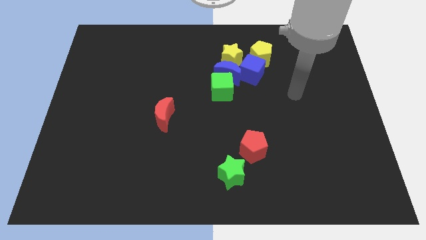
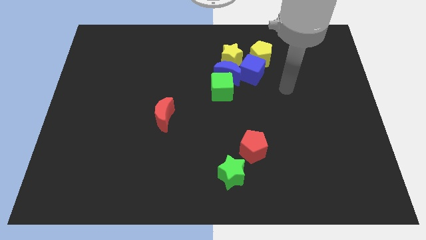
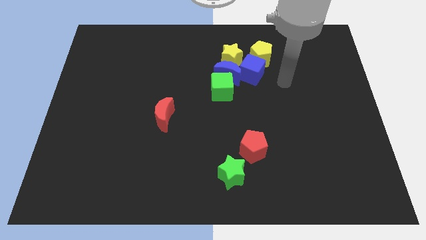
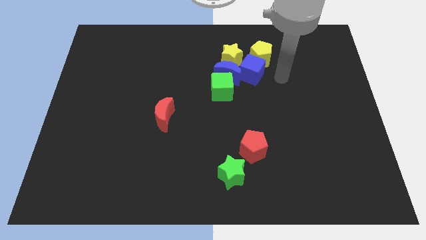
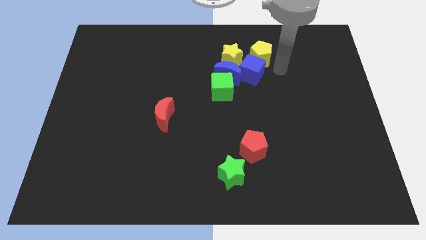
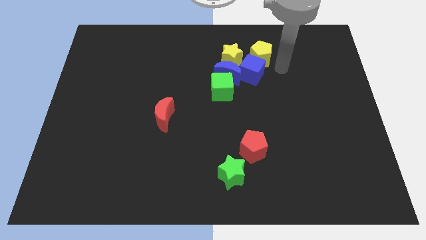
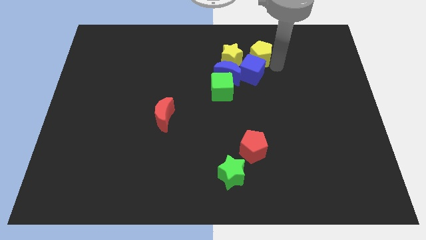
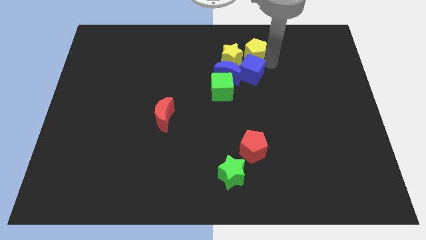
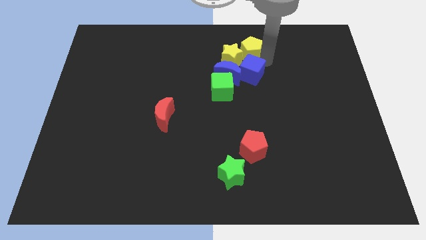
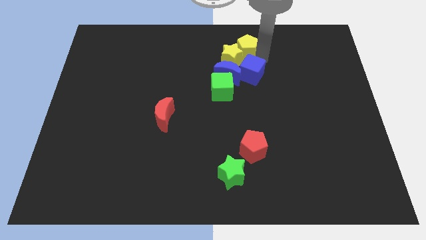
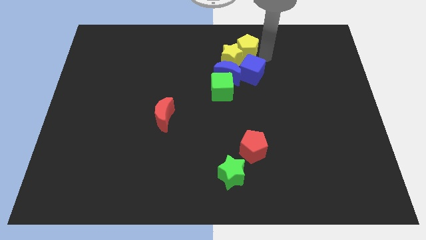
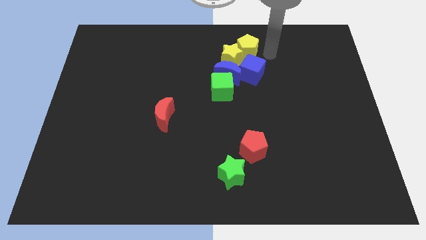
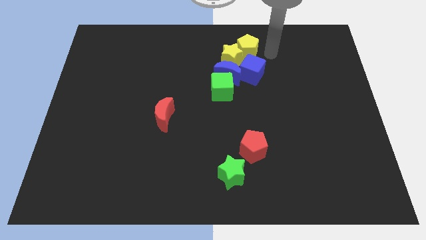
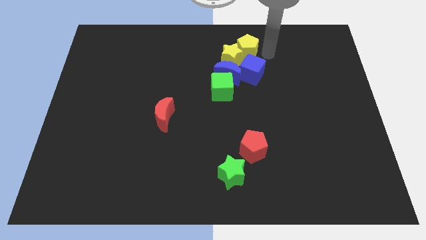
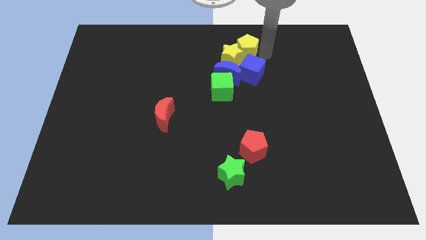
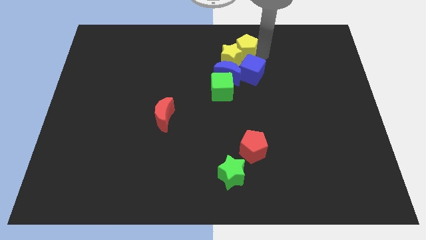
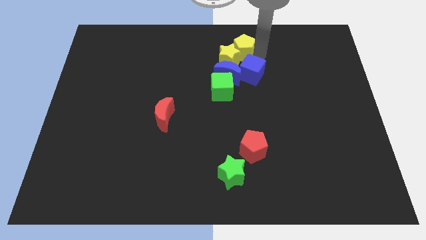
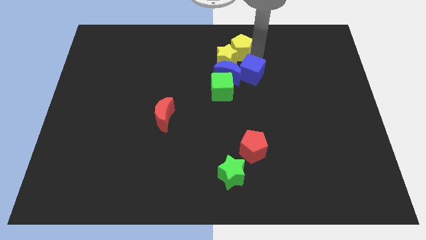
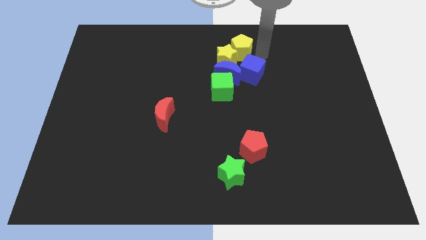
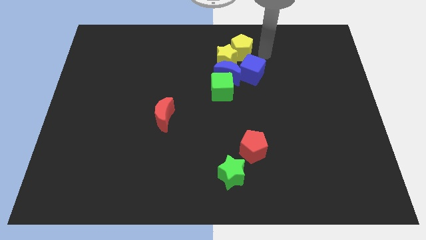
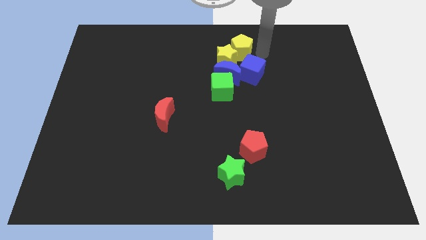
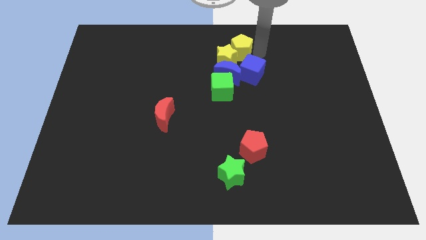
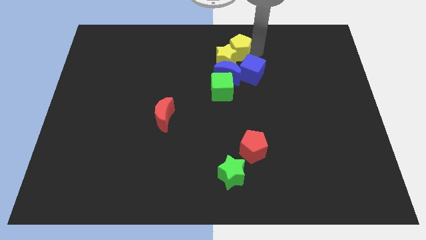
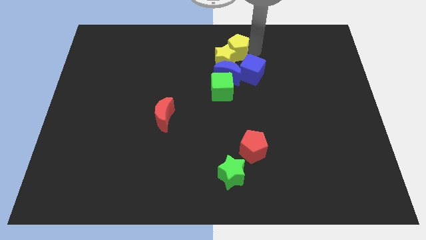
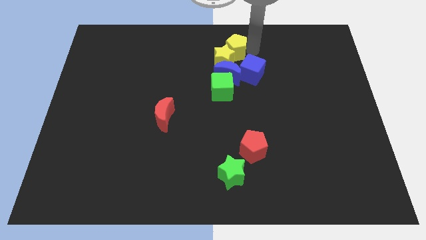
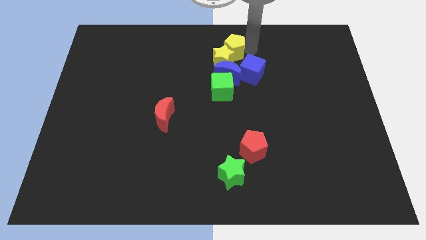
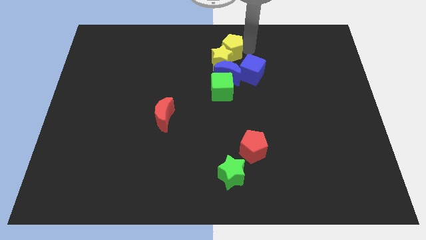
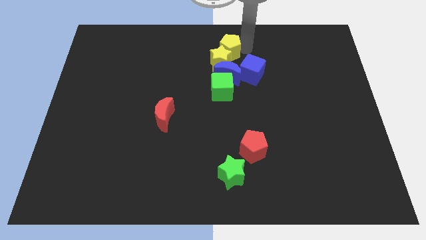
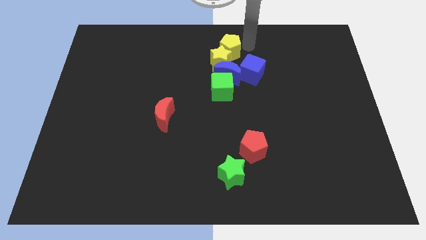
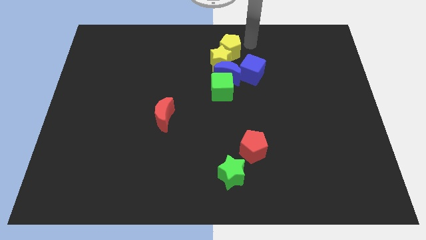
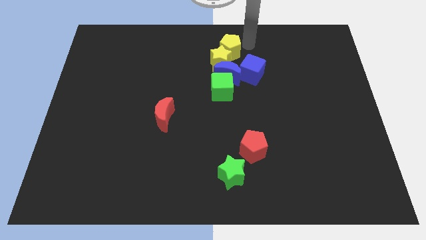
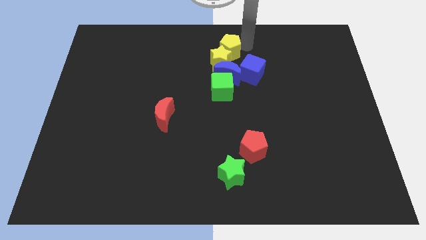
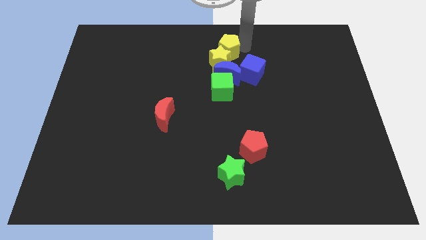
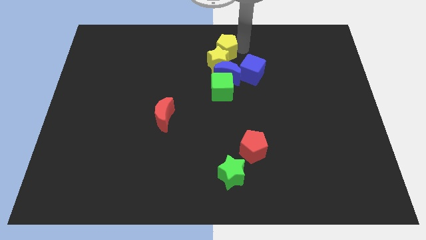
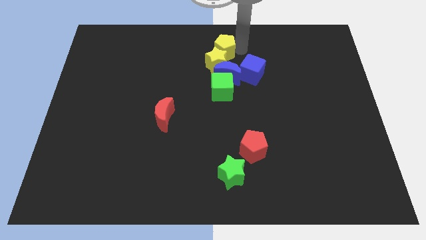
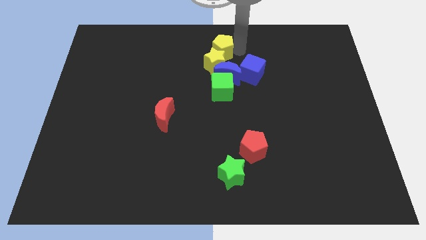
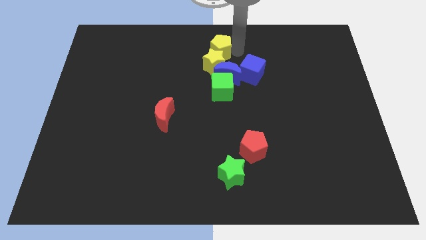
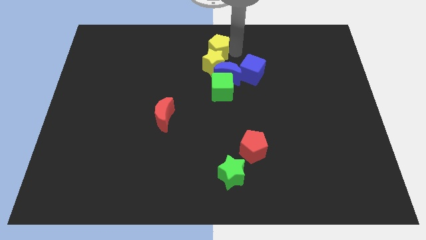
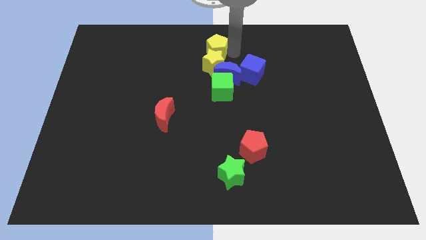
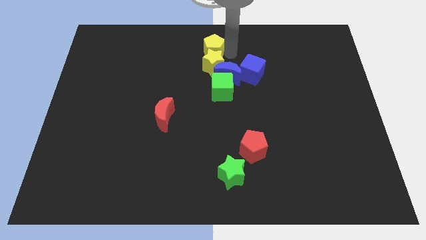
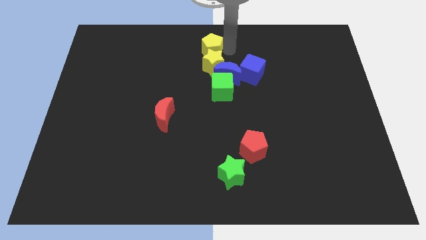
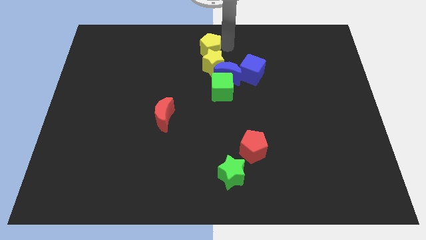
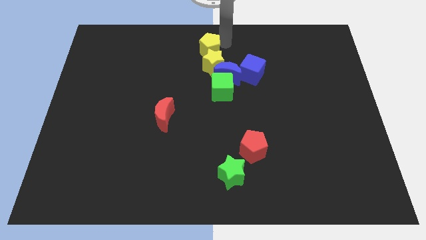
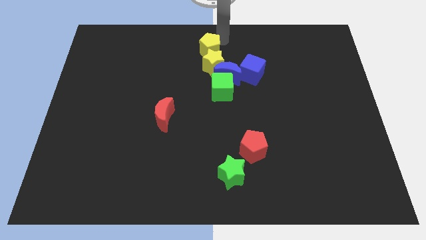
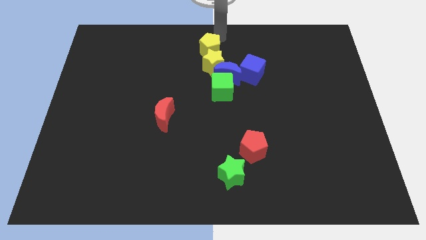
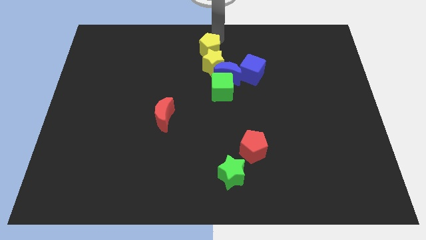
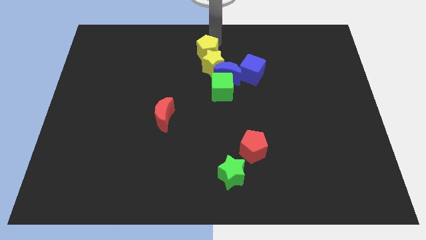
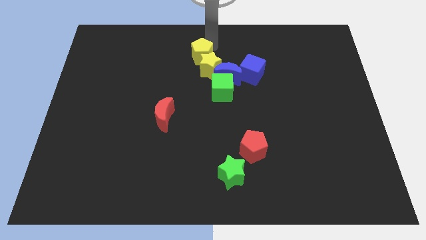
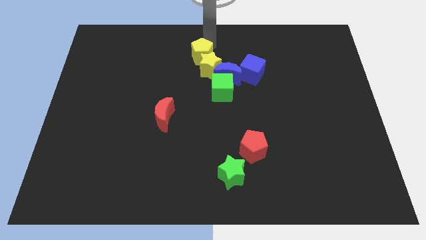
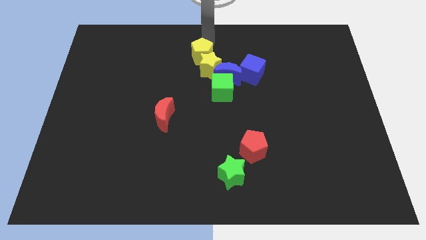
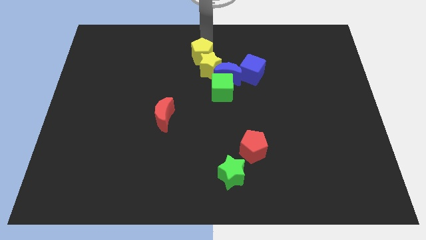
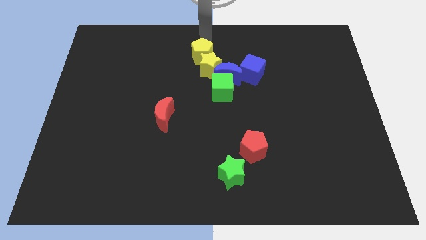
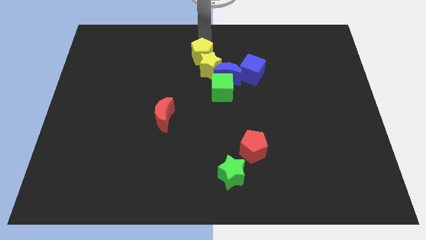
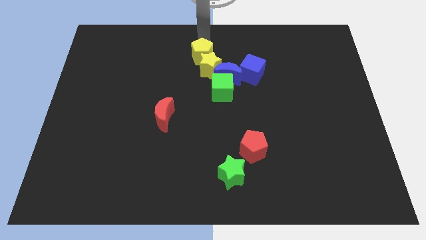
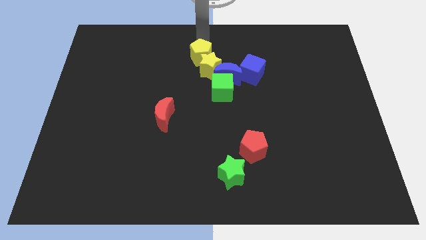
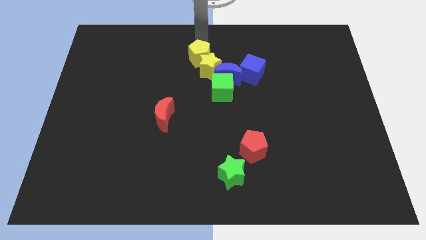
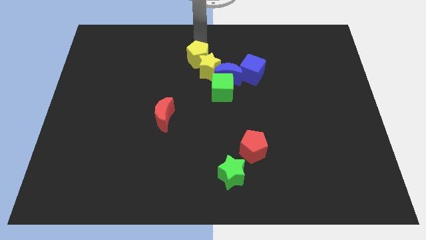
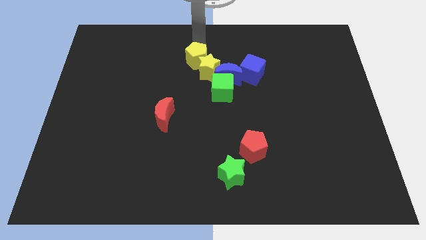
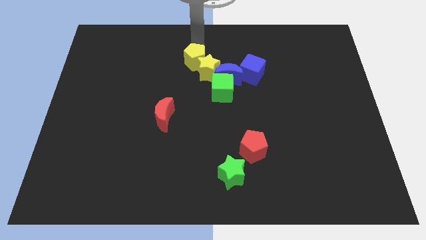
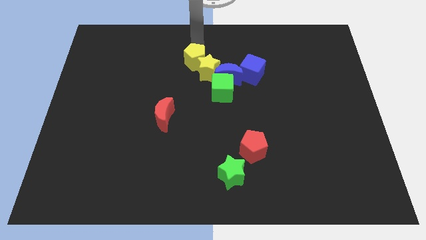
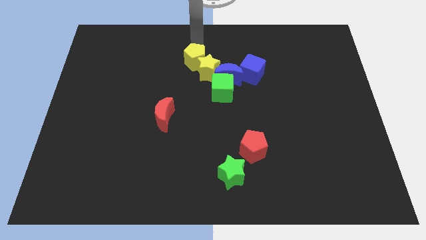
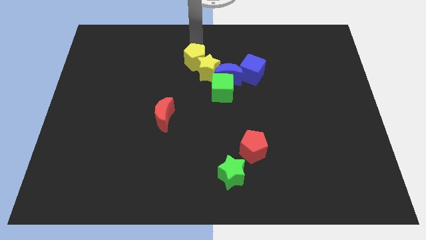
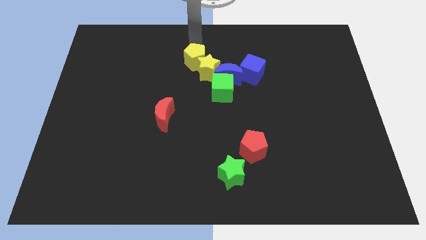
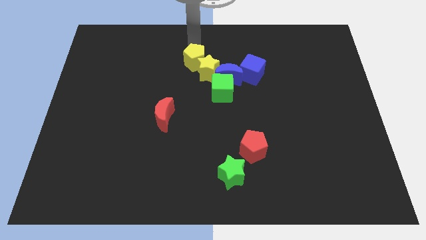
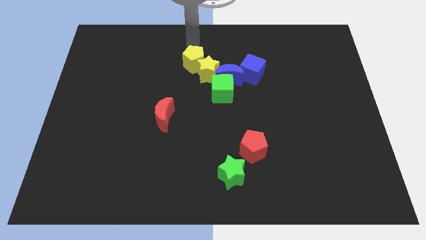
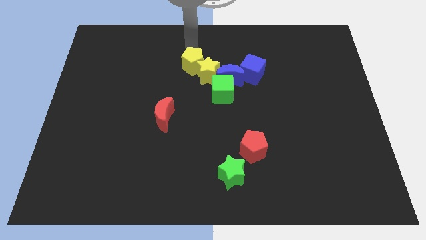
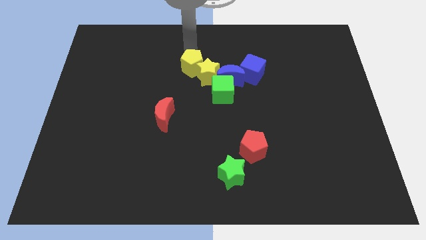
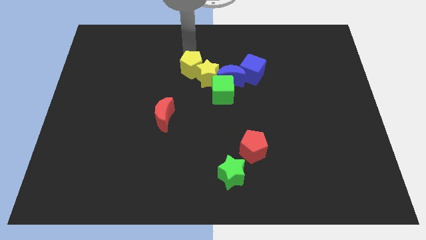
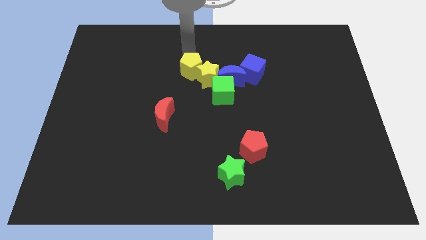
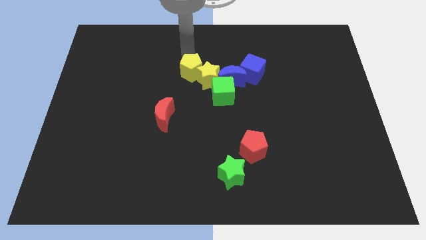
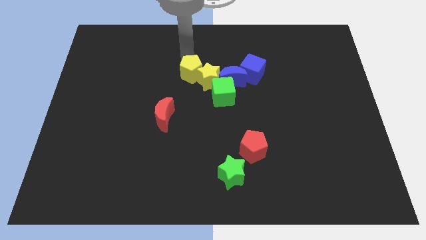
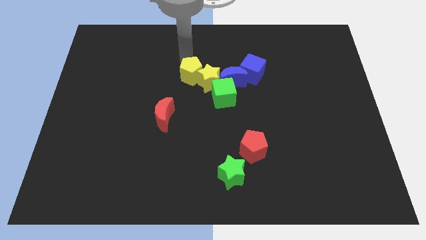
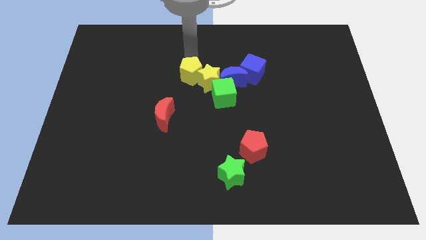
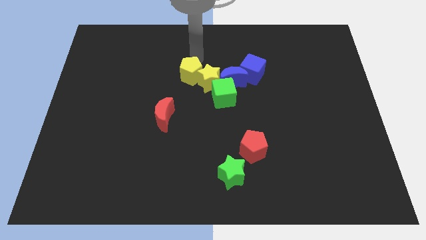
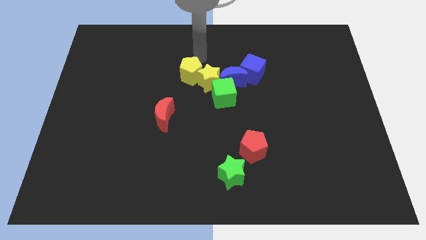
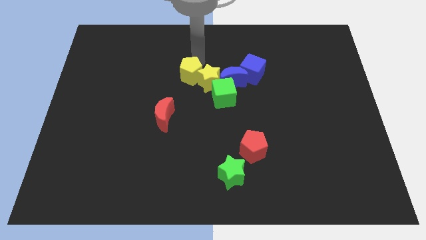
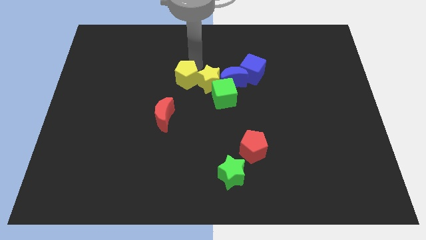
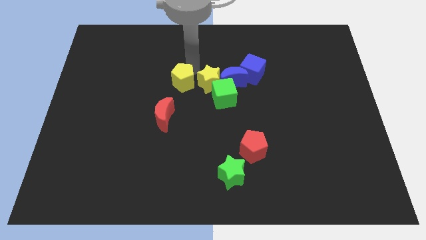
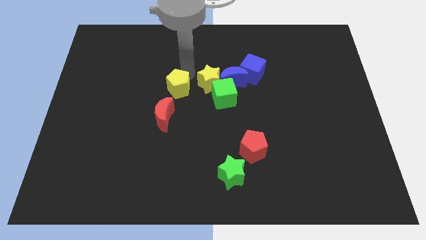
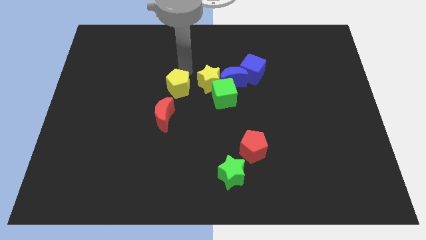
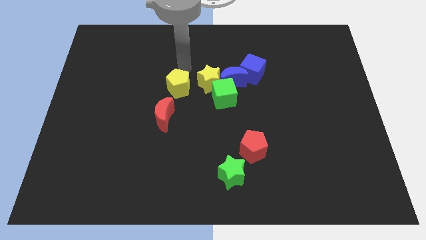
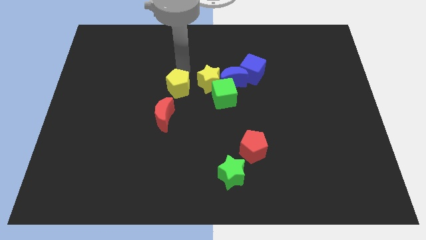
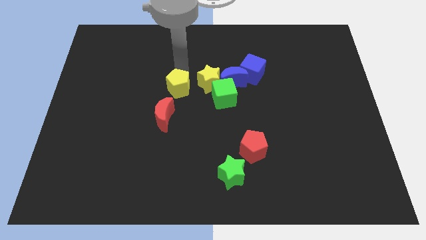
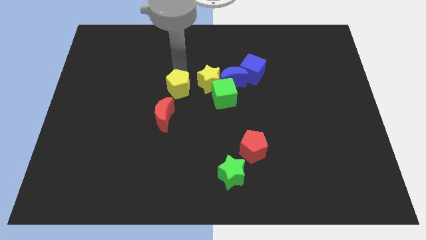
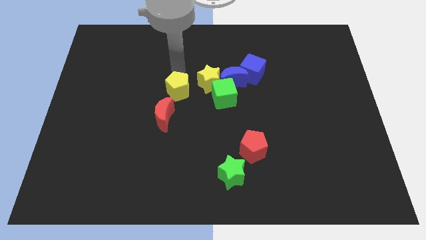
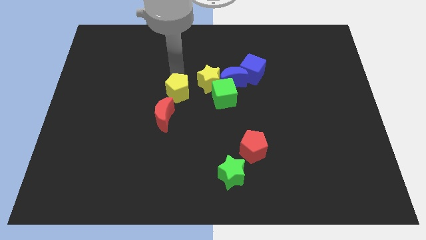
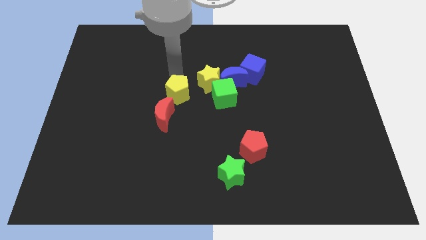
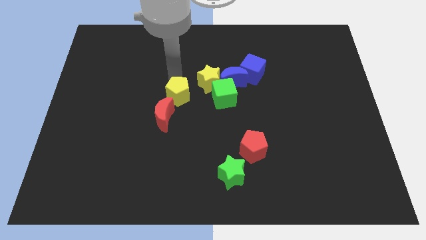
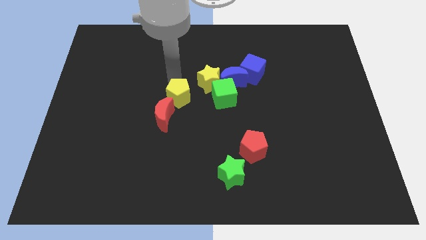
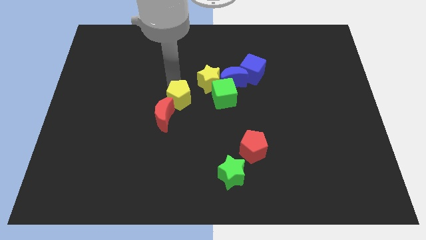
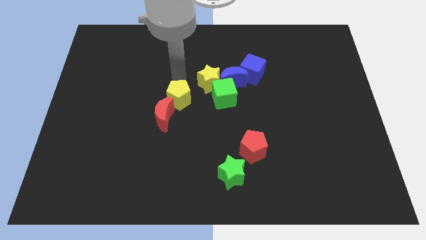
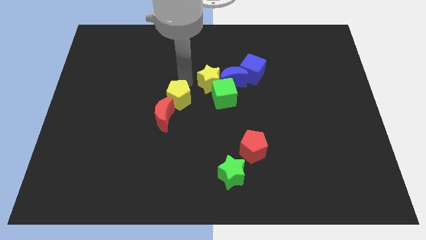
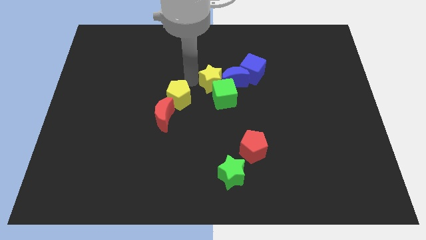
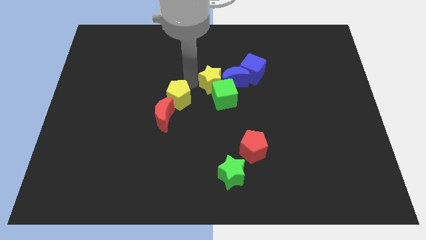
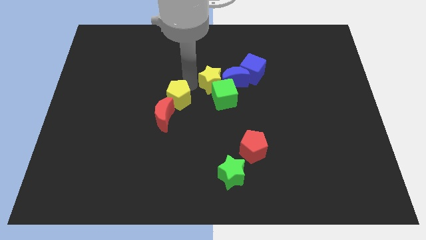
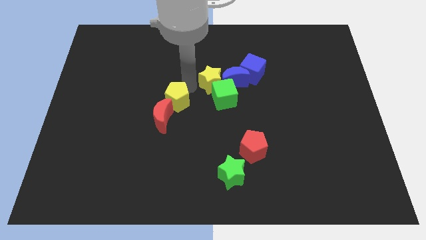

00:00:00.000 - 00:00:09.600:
slide the yellow pentagon to the red moon
